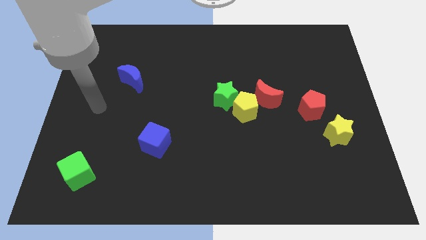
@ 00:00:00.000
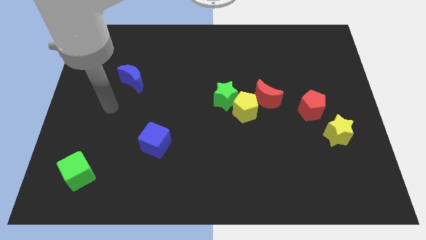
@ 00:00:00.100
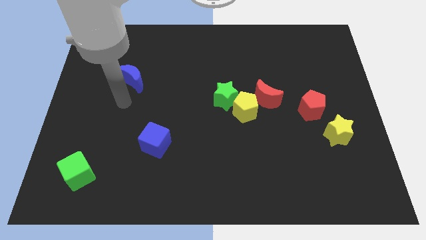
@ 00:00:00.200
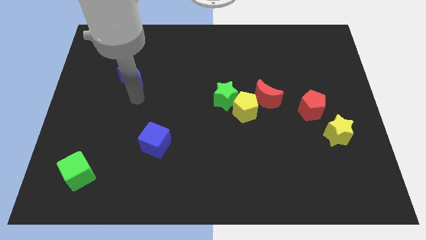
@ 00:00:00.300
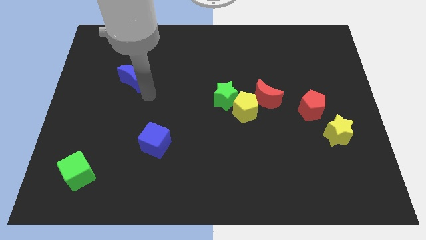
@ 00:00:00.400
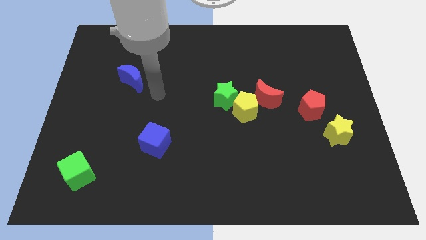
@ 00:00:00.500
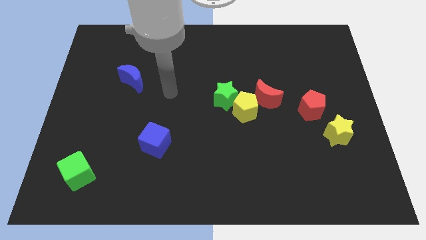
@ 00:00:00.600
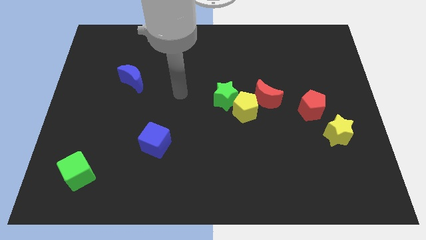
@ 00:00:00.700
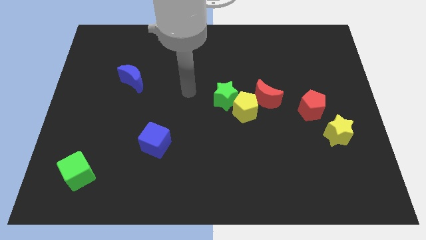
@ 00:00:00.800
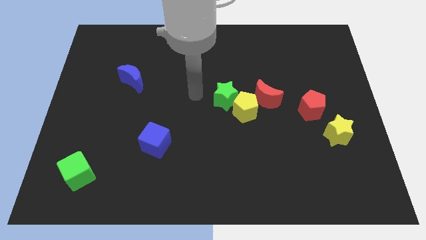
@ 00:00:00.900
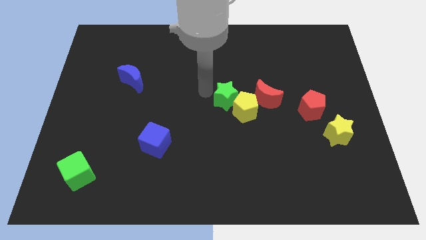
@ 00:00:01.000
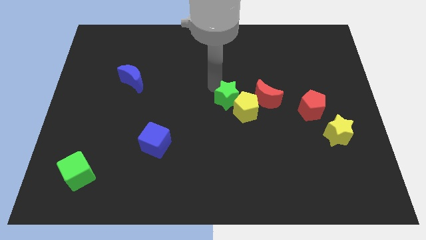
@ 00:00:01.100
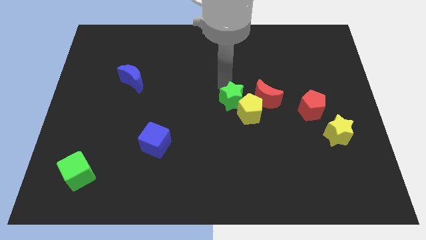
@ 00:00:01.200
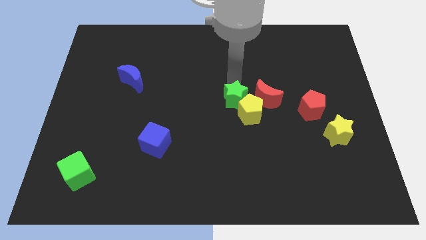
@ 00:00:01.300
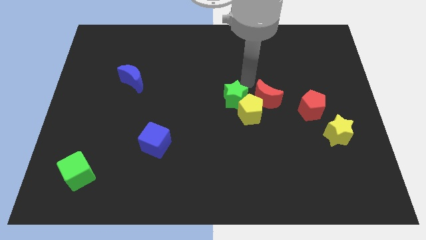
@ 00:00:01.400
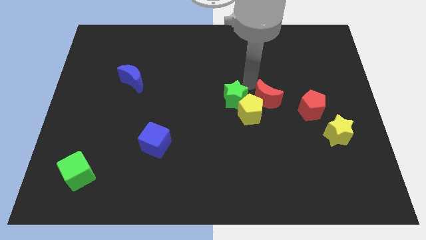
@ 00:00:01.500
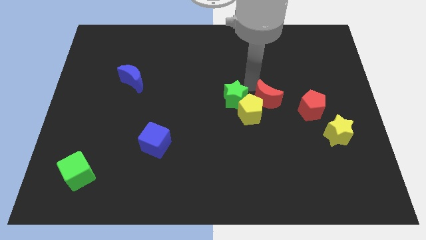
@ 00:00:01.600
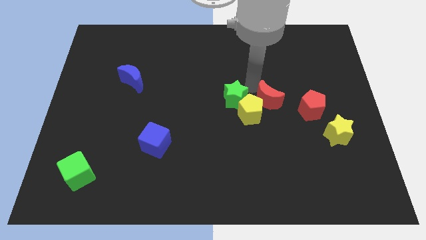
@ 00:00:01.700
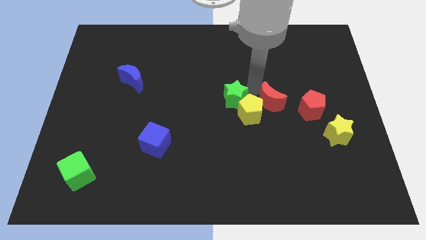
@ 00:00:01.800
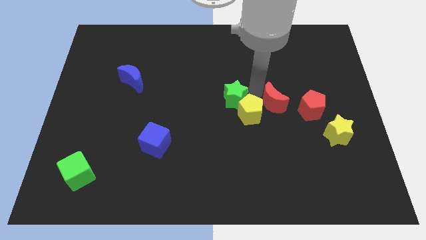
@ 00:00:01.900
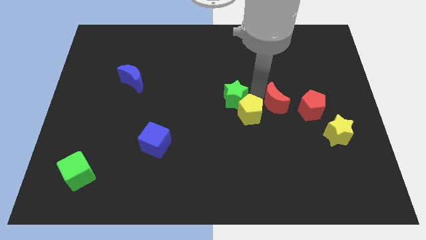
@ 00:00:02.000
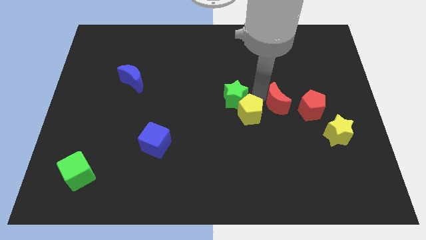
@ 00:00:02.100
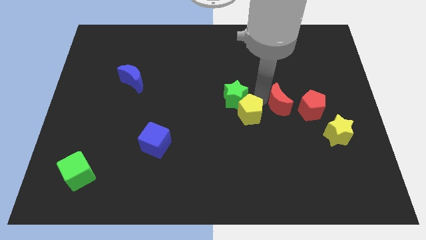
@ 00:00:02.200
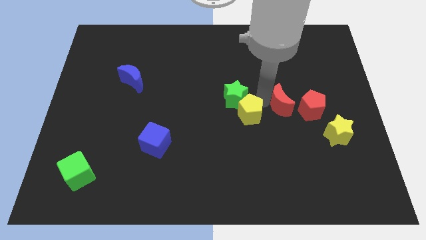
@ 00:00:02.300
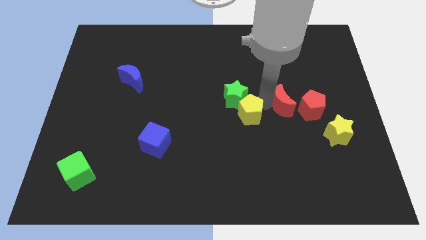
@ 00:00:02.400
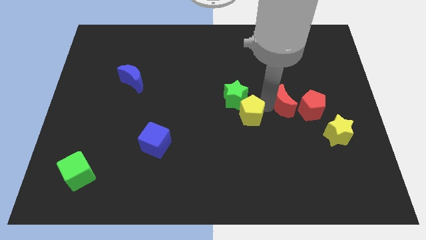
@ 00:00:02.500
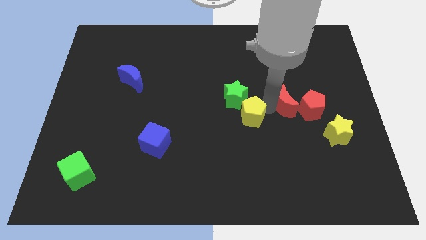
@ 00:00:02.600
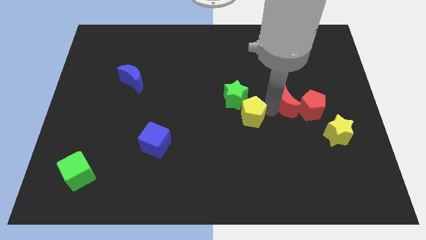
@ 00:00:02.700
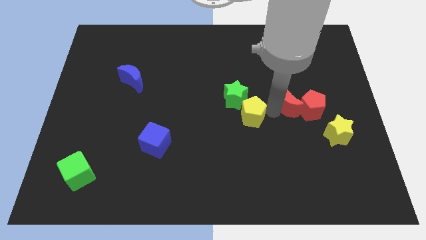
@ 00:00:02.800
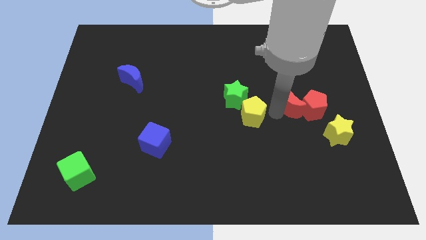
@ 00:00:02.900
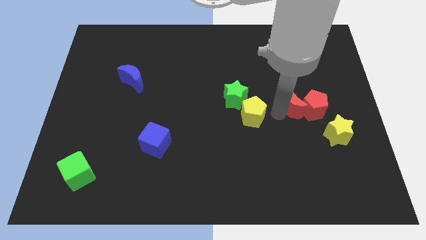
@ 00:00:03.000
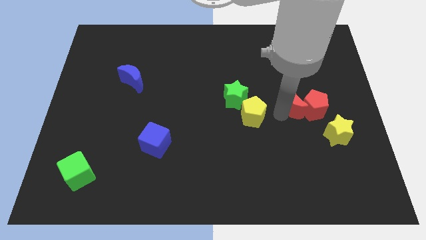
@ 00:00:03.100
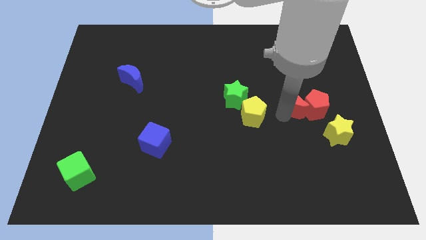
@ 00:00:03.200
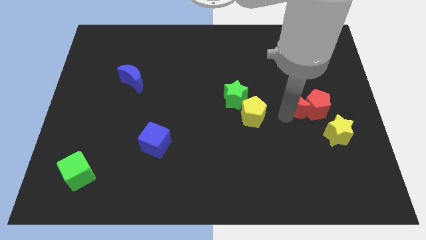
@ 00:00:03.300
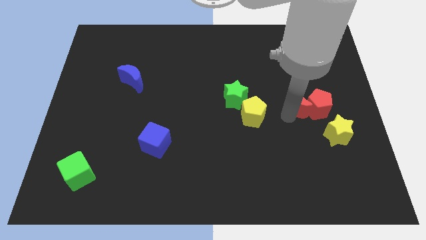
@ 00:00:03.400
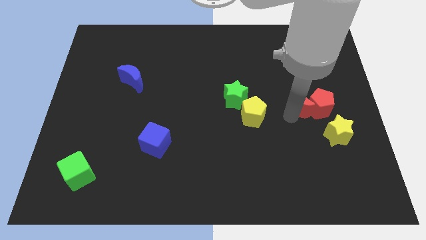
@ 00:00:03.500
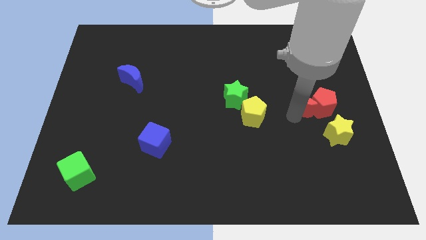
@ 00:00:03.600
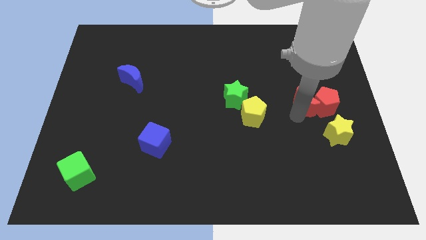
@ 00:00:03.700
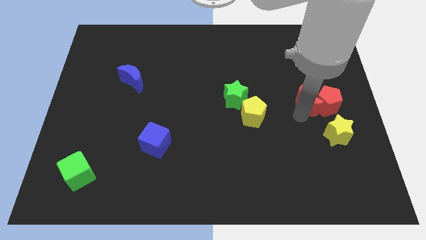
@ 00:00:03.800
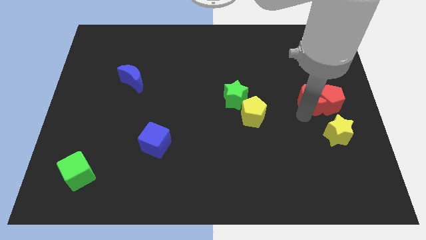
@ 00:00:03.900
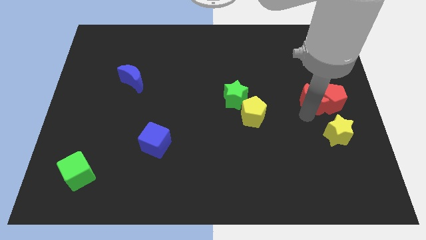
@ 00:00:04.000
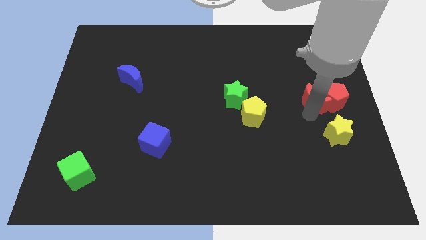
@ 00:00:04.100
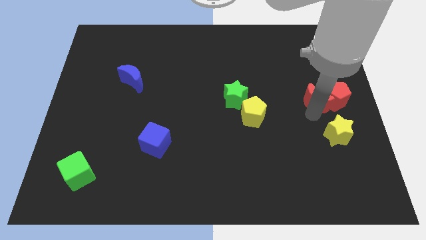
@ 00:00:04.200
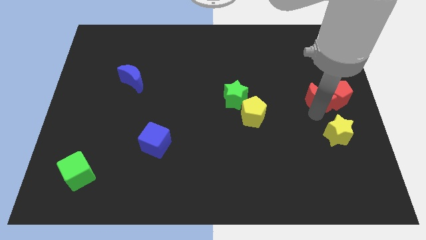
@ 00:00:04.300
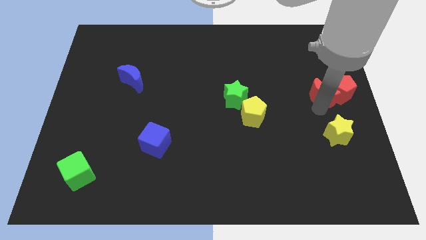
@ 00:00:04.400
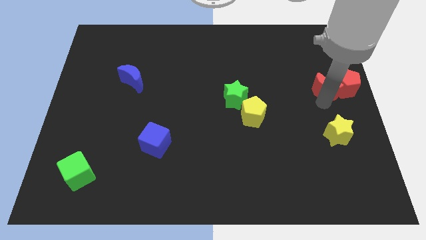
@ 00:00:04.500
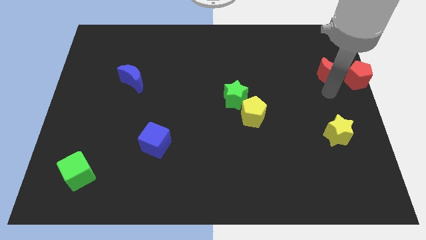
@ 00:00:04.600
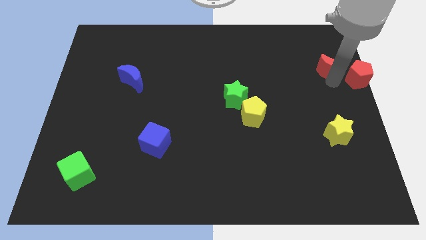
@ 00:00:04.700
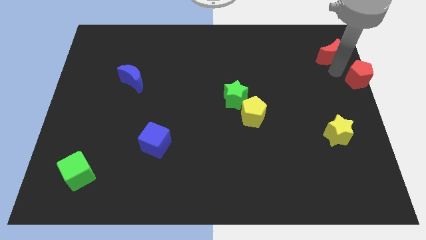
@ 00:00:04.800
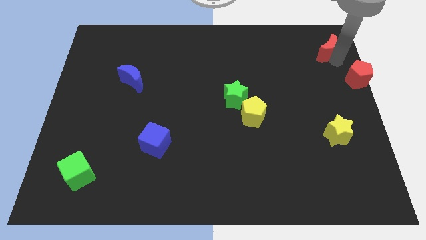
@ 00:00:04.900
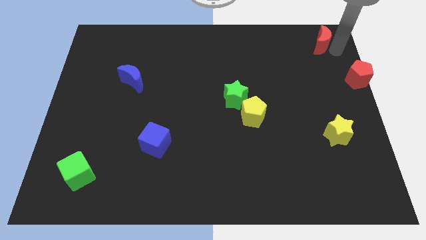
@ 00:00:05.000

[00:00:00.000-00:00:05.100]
push the red moon to the top right

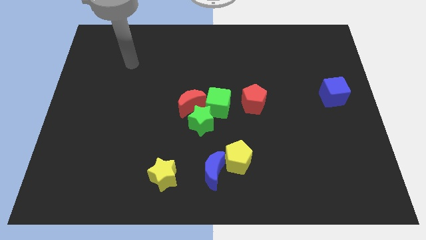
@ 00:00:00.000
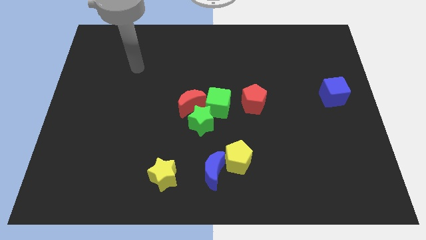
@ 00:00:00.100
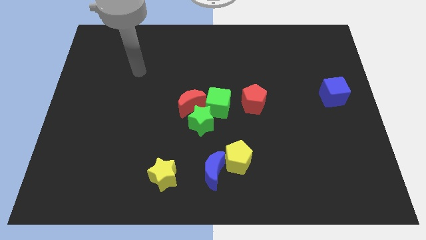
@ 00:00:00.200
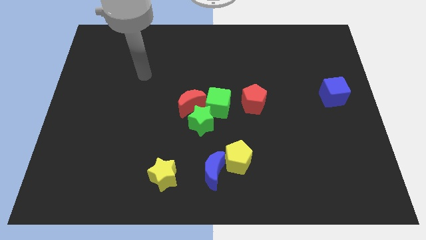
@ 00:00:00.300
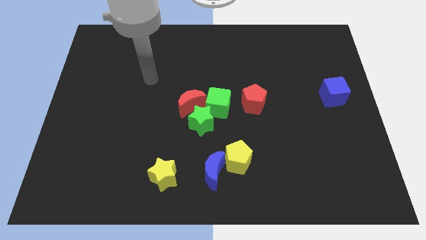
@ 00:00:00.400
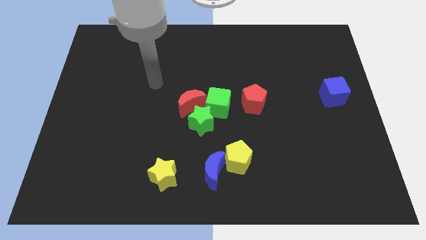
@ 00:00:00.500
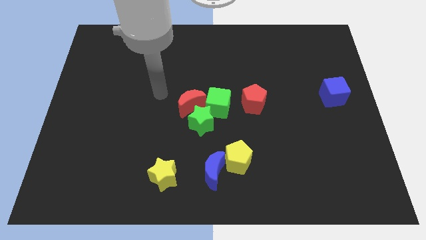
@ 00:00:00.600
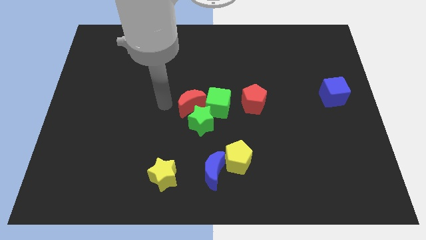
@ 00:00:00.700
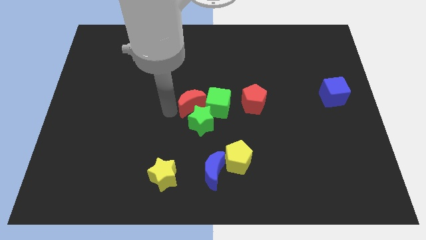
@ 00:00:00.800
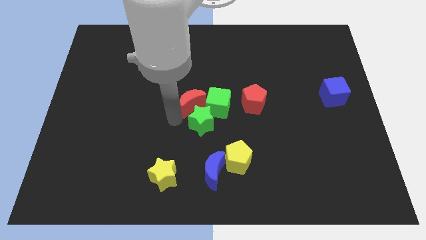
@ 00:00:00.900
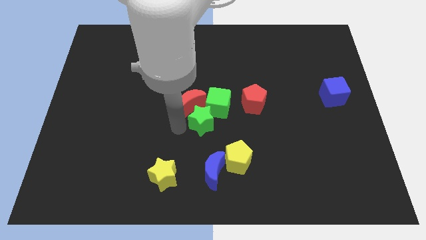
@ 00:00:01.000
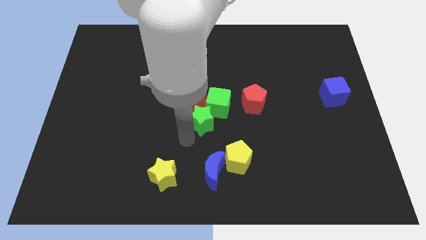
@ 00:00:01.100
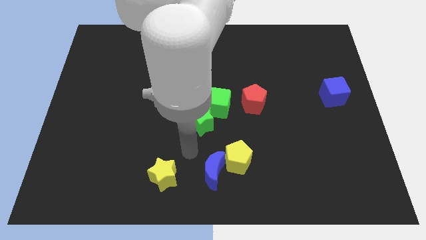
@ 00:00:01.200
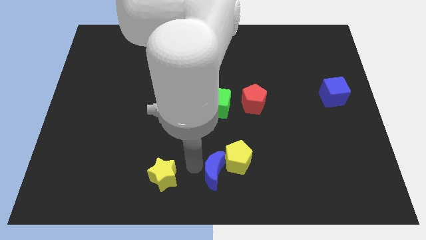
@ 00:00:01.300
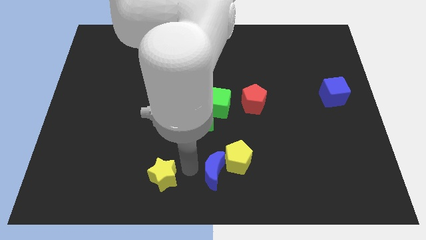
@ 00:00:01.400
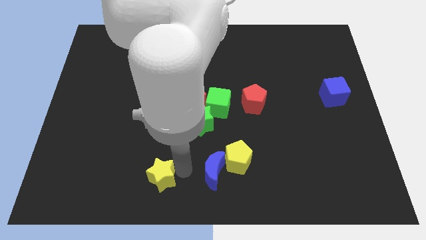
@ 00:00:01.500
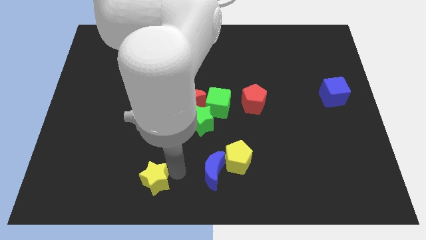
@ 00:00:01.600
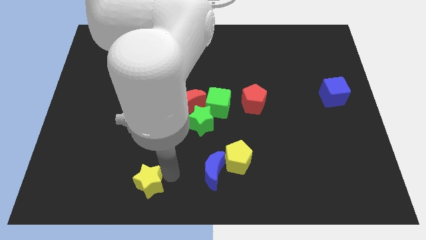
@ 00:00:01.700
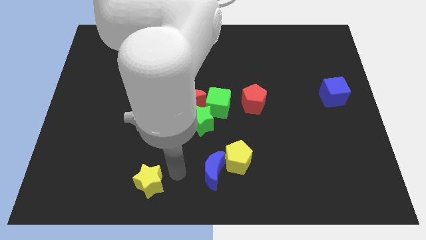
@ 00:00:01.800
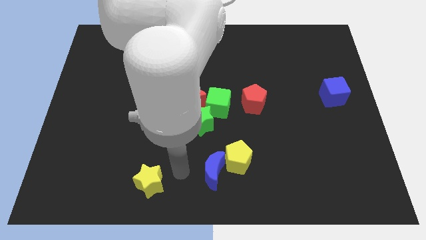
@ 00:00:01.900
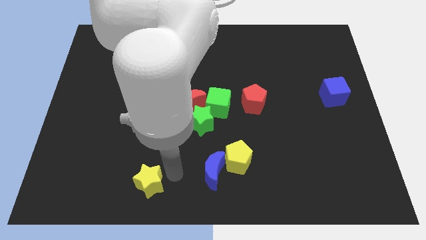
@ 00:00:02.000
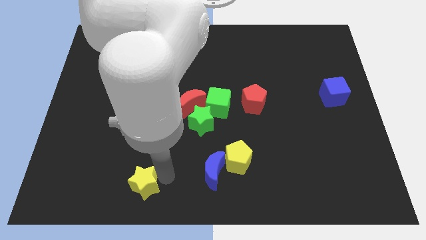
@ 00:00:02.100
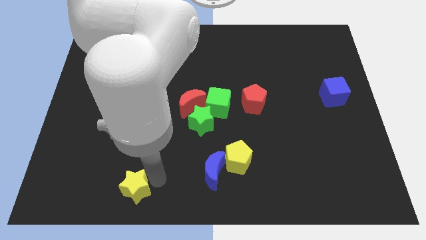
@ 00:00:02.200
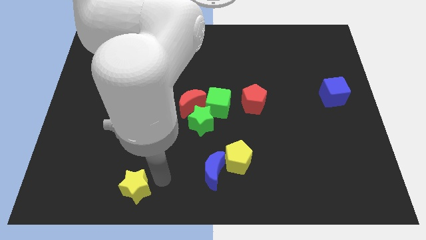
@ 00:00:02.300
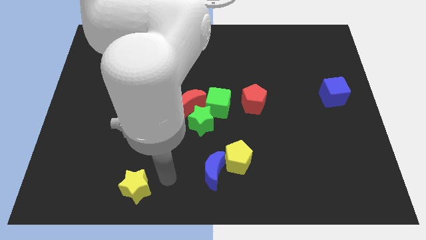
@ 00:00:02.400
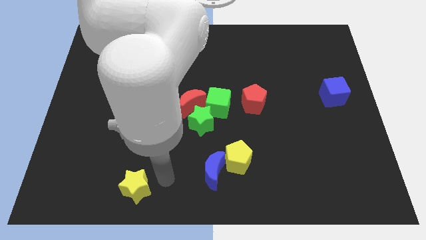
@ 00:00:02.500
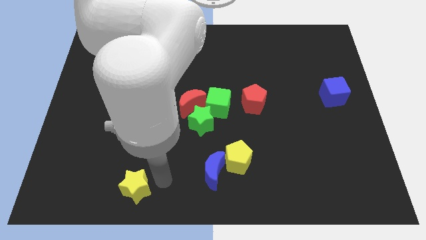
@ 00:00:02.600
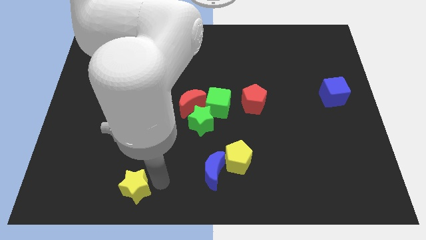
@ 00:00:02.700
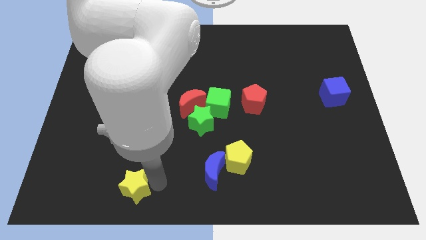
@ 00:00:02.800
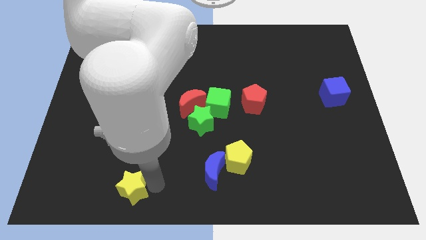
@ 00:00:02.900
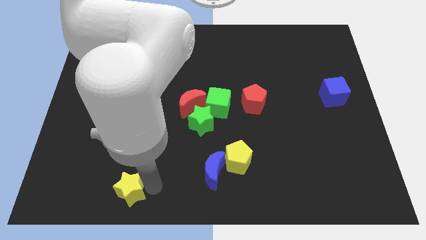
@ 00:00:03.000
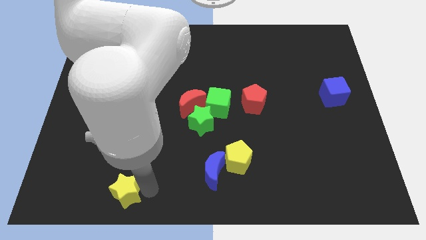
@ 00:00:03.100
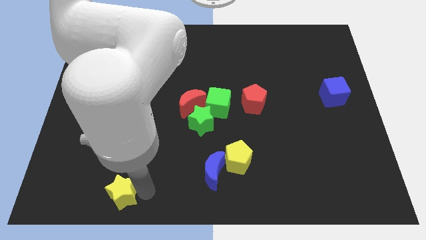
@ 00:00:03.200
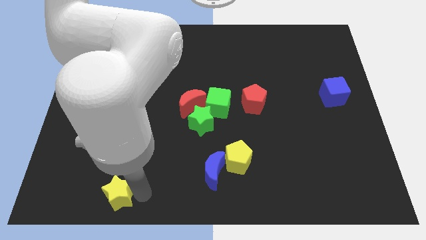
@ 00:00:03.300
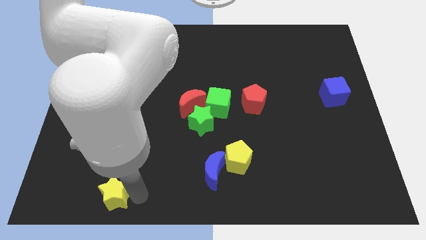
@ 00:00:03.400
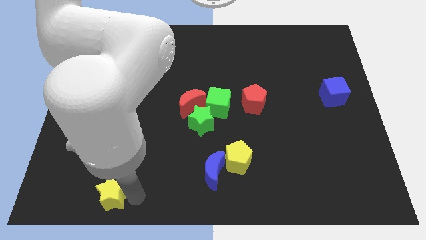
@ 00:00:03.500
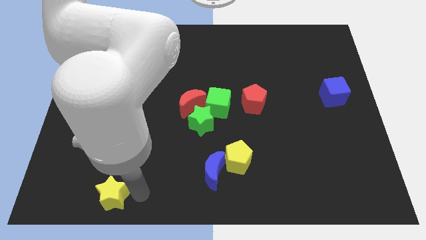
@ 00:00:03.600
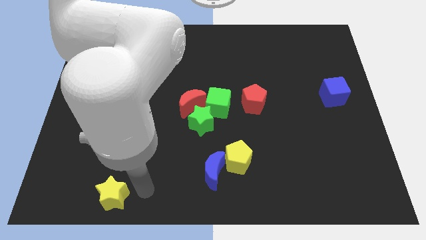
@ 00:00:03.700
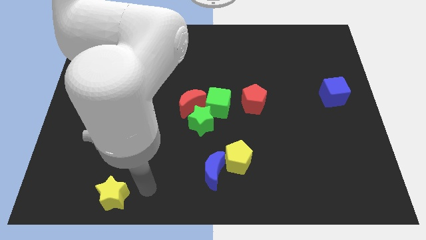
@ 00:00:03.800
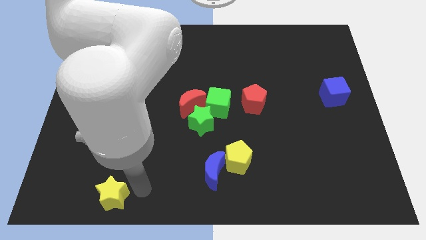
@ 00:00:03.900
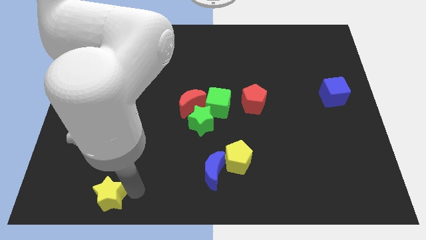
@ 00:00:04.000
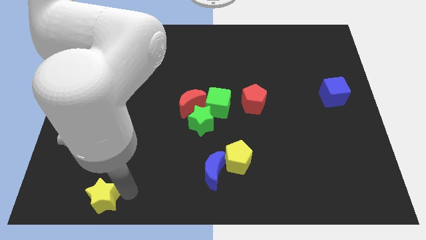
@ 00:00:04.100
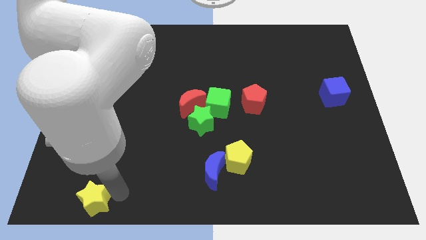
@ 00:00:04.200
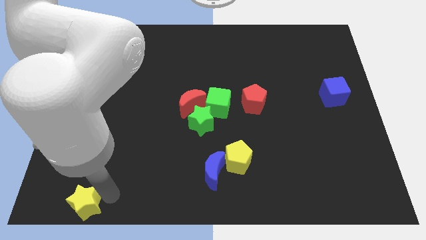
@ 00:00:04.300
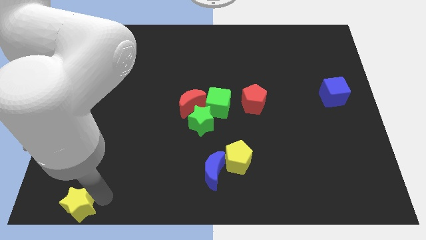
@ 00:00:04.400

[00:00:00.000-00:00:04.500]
push the yellow star to the bottom left
